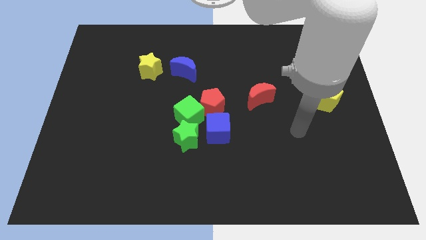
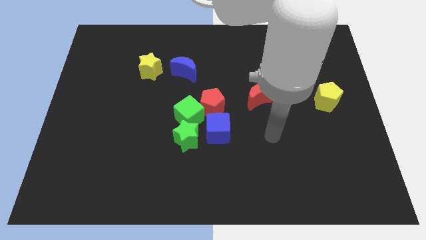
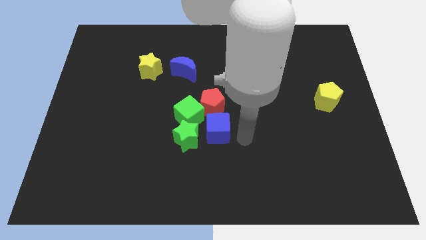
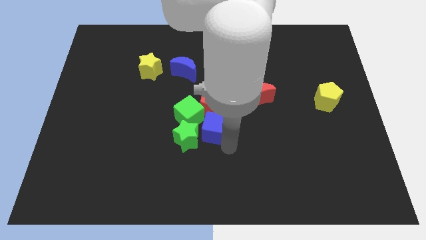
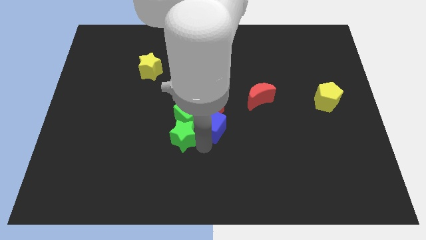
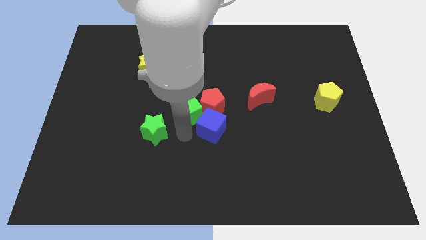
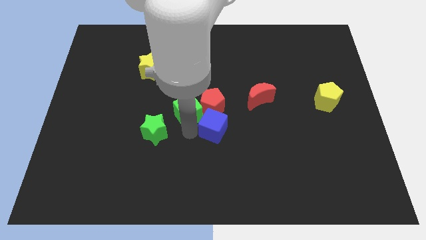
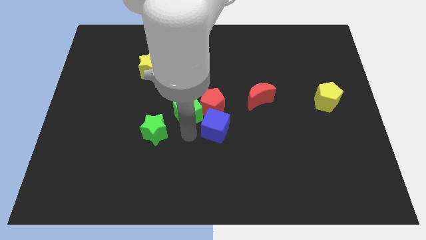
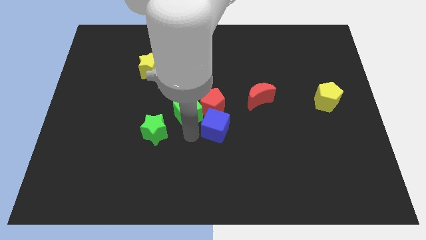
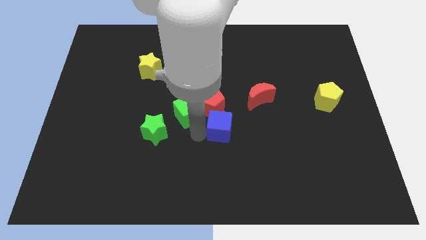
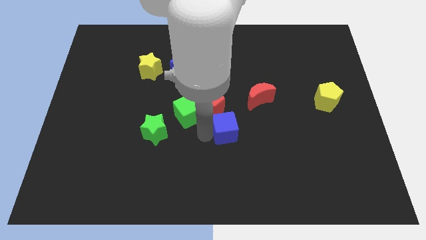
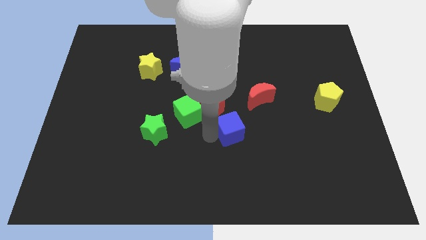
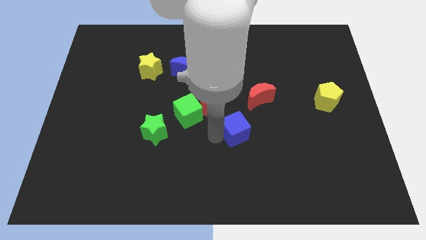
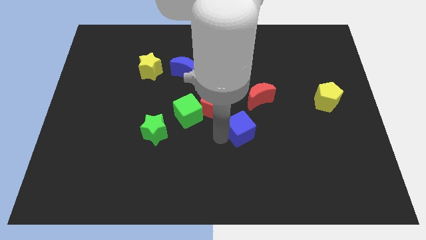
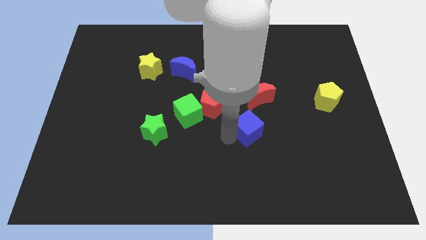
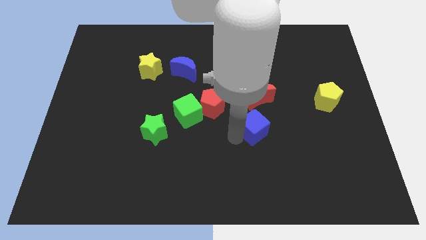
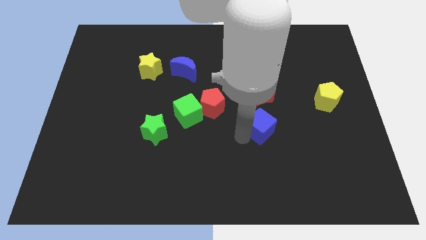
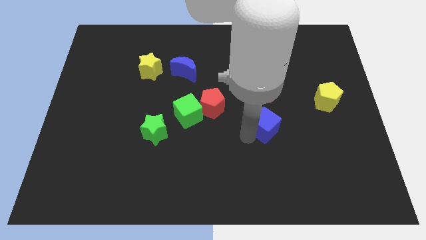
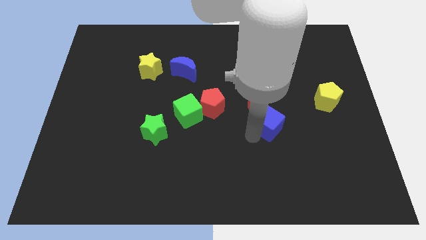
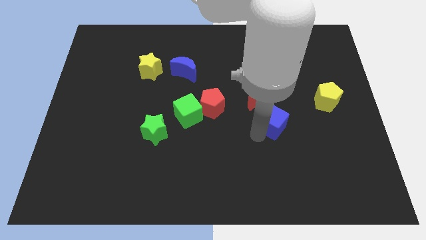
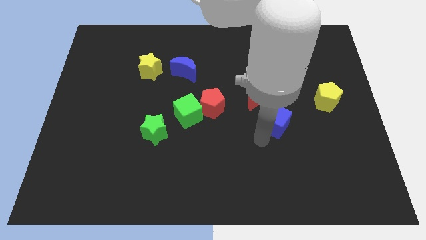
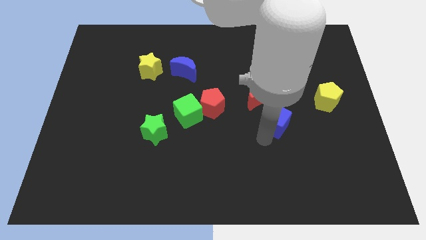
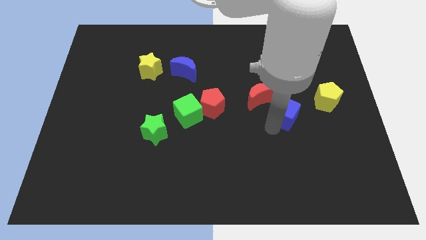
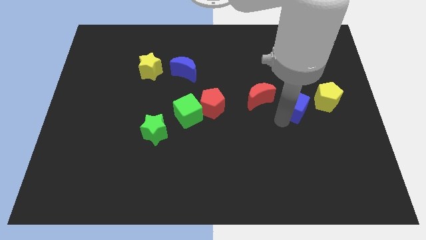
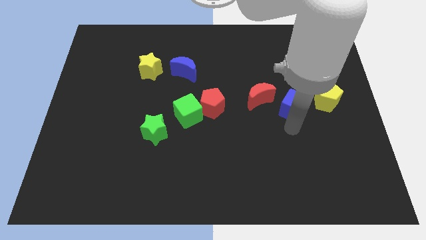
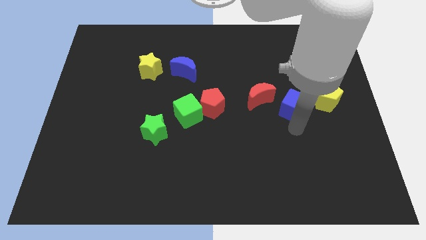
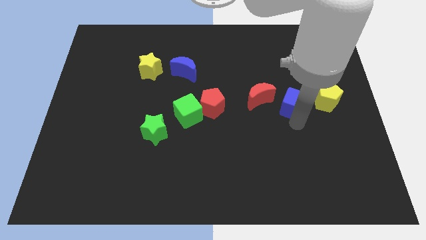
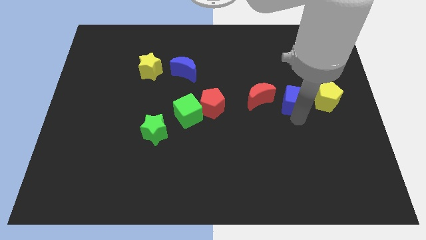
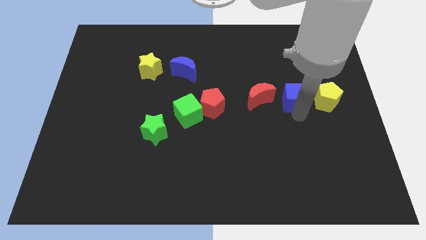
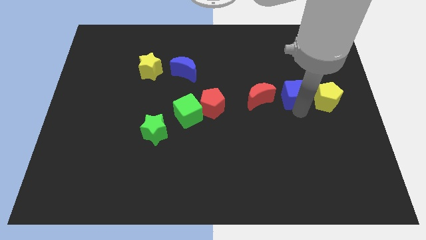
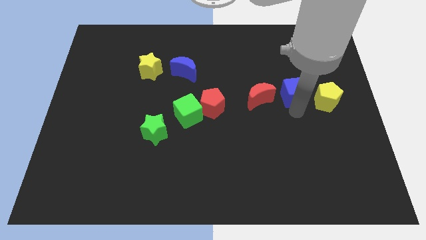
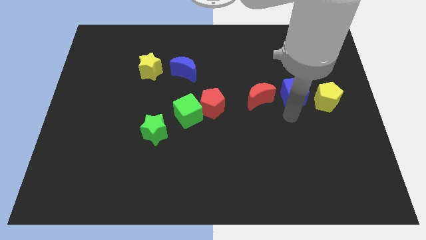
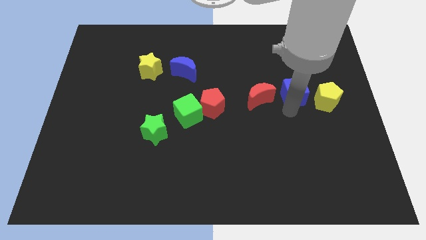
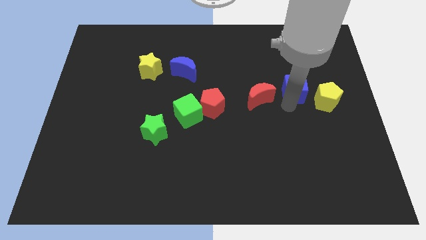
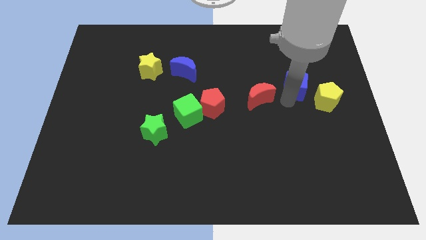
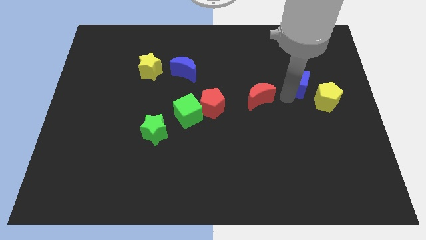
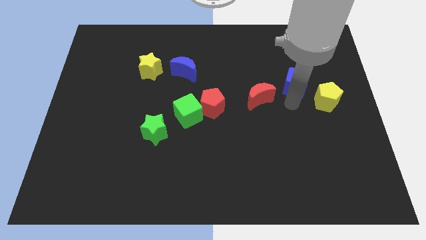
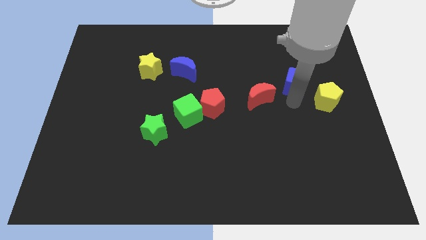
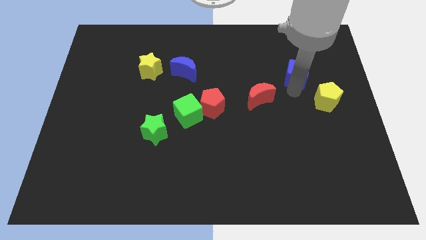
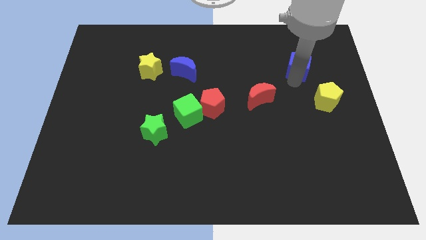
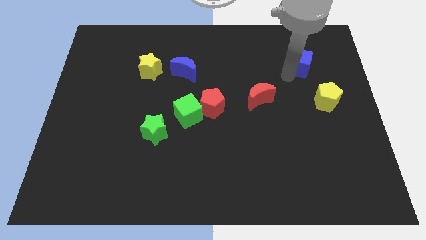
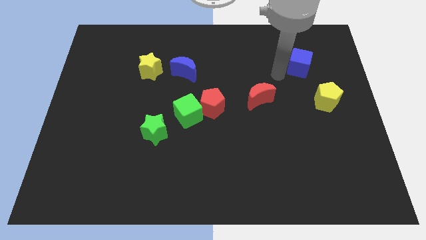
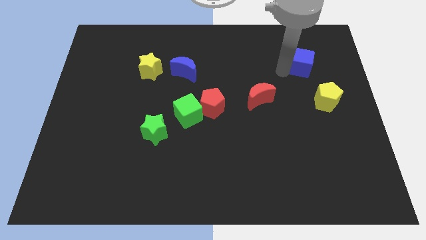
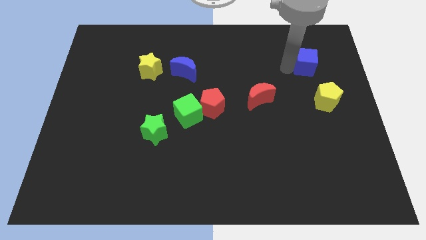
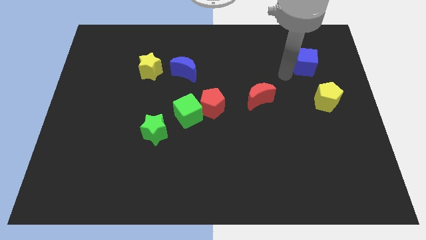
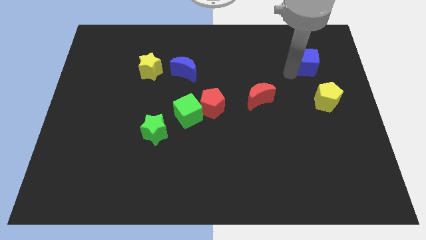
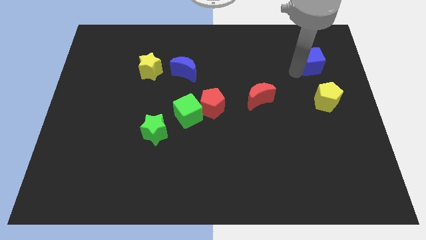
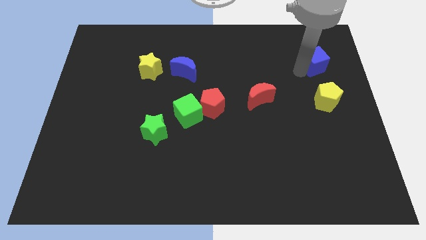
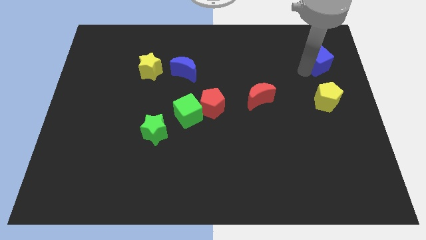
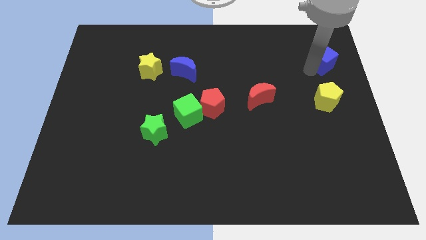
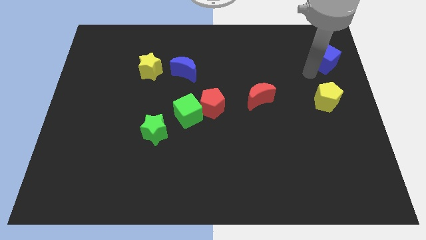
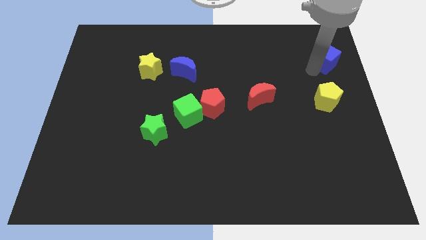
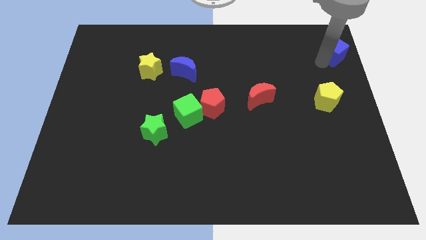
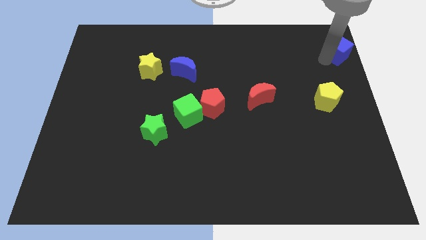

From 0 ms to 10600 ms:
move the blue cube to the top right corner

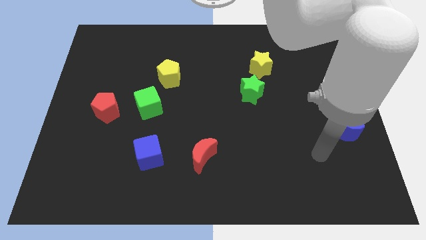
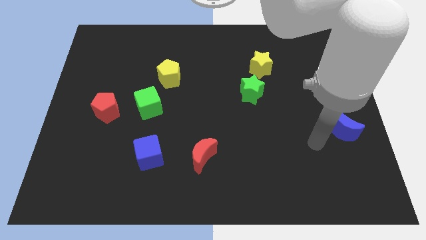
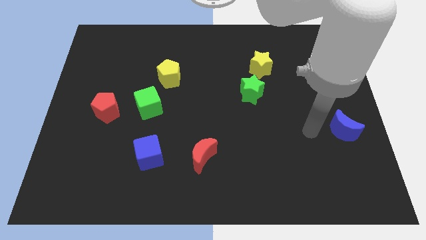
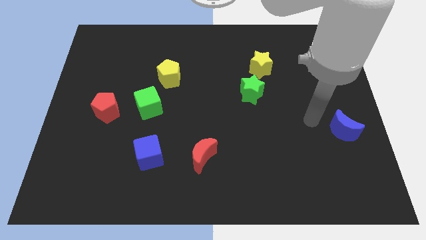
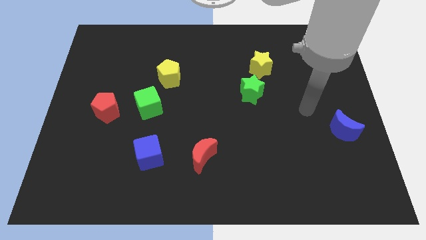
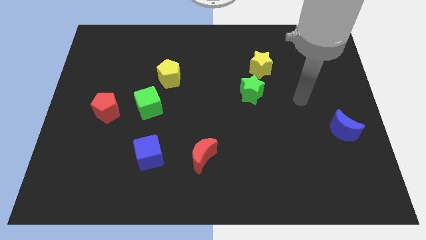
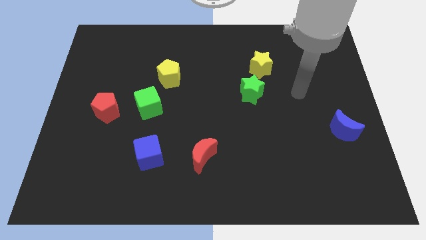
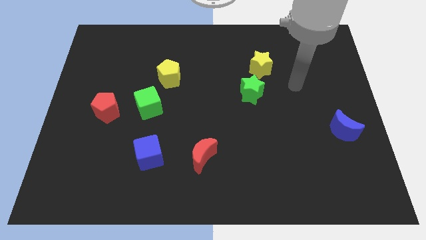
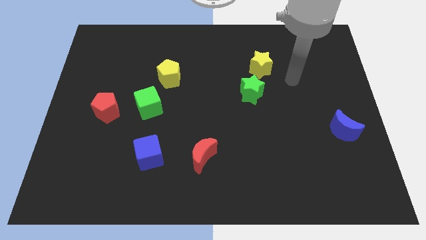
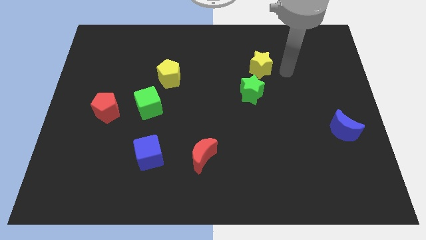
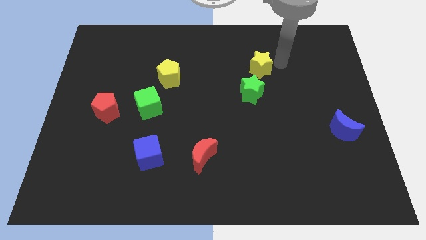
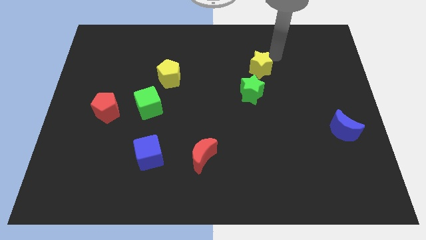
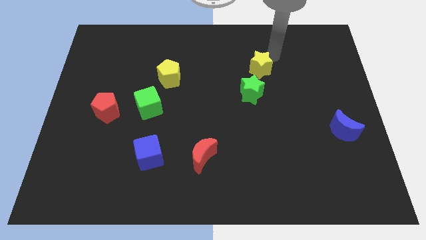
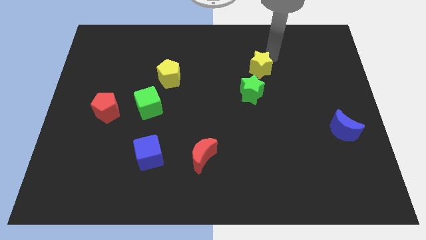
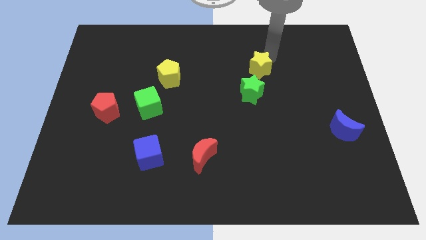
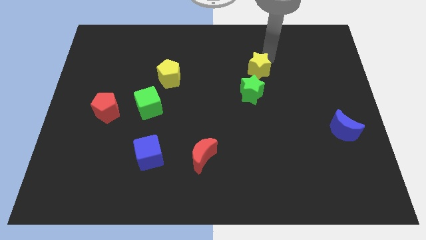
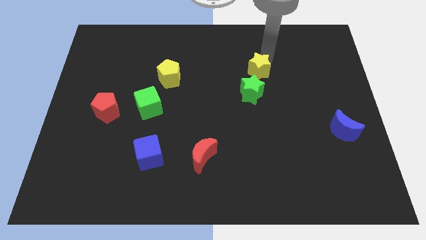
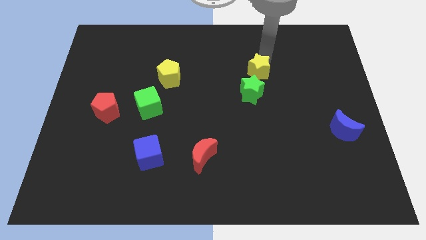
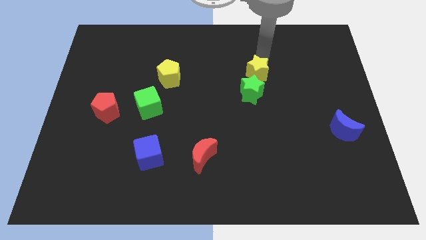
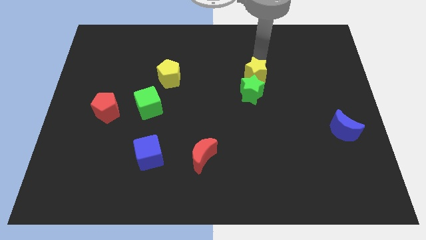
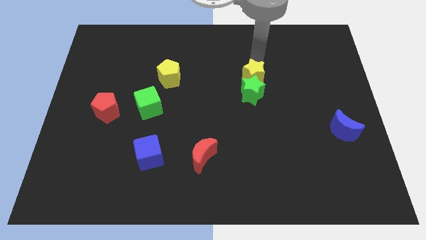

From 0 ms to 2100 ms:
slide the yellow star to the center
